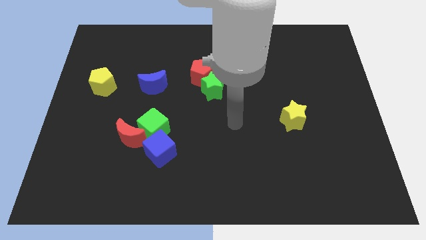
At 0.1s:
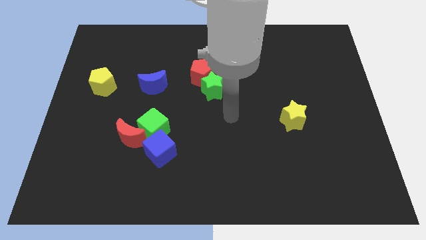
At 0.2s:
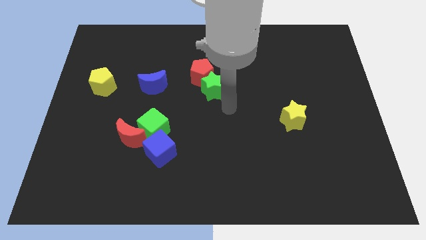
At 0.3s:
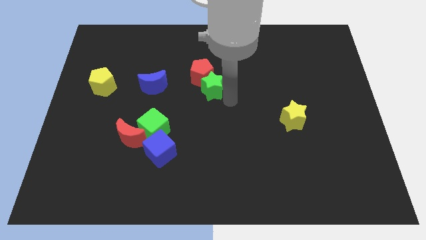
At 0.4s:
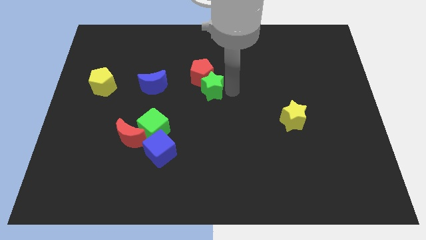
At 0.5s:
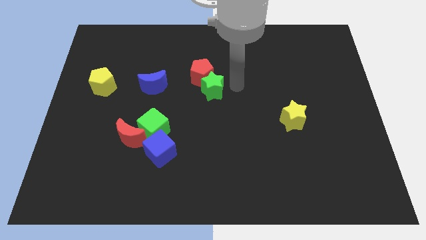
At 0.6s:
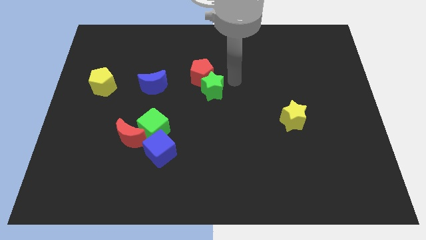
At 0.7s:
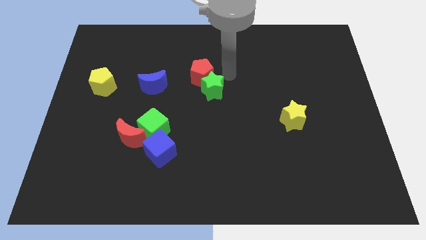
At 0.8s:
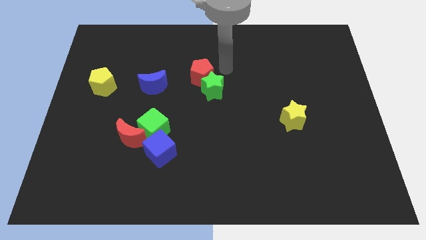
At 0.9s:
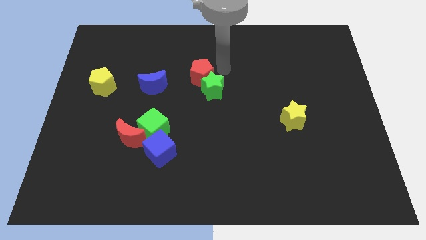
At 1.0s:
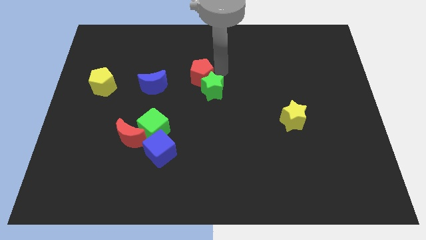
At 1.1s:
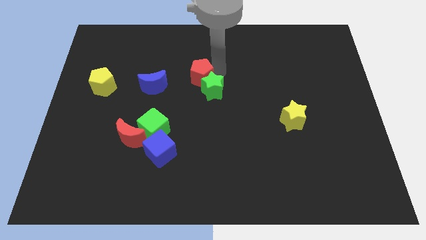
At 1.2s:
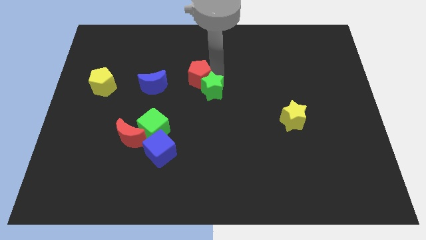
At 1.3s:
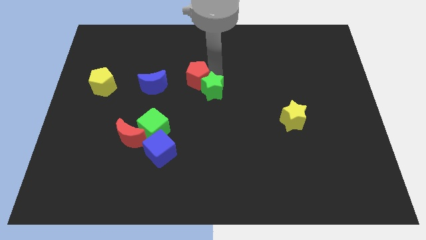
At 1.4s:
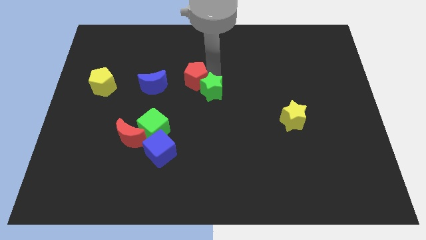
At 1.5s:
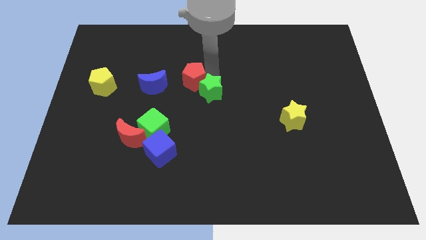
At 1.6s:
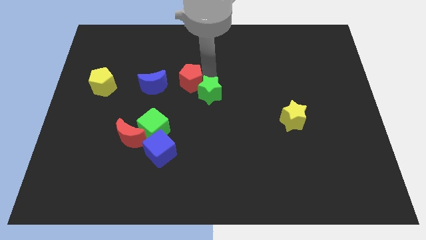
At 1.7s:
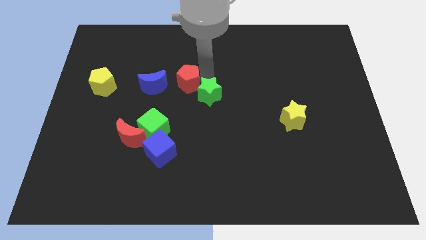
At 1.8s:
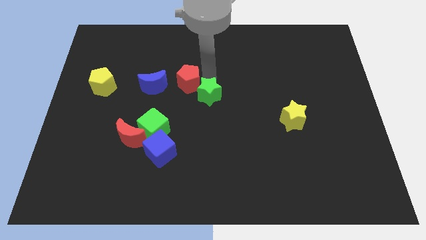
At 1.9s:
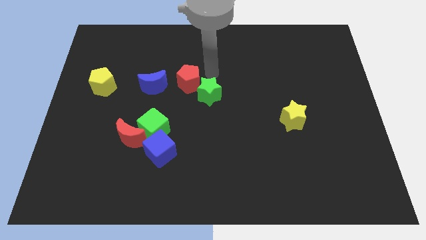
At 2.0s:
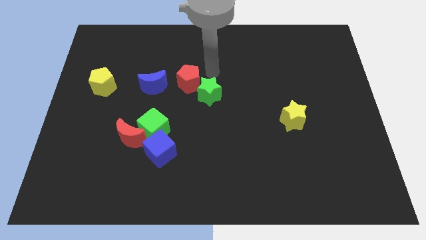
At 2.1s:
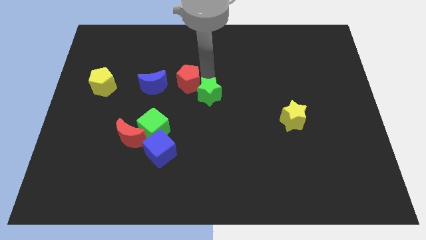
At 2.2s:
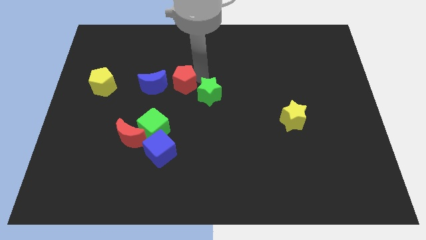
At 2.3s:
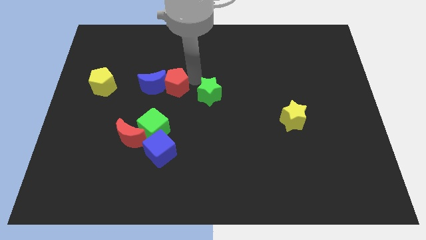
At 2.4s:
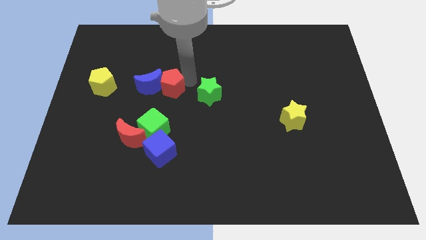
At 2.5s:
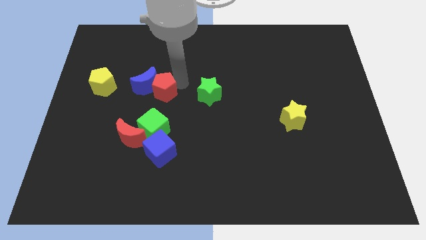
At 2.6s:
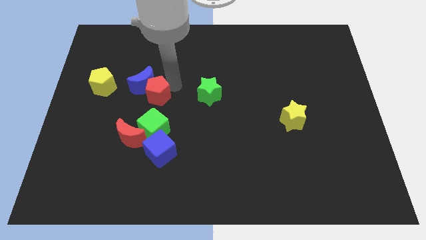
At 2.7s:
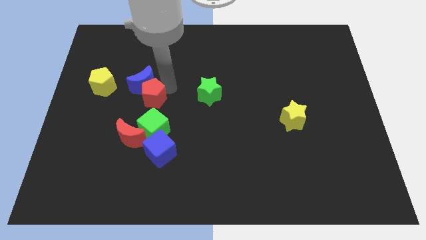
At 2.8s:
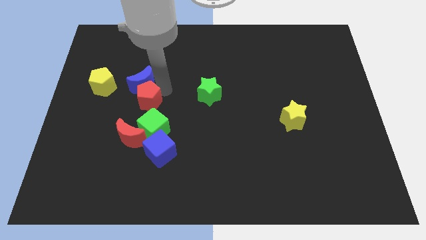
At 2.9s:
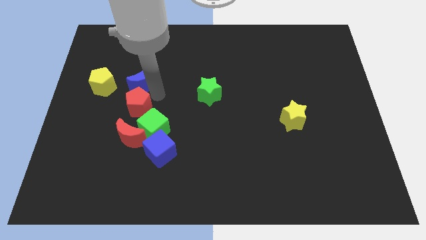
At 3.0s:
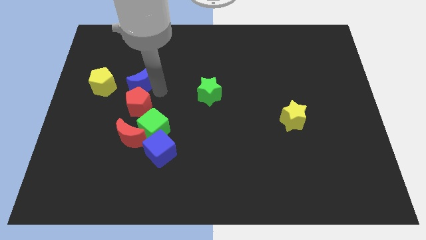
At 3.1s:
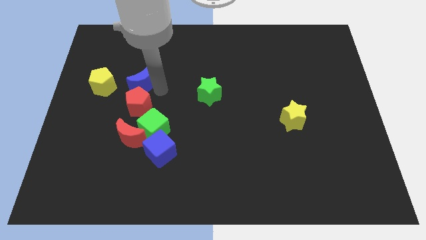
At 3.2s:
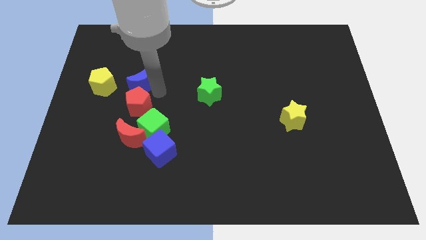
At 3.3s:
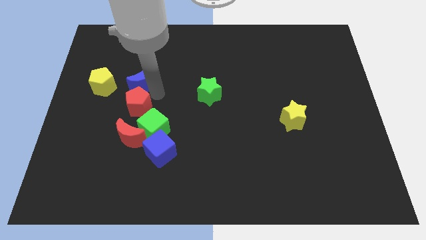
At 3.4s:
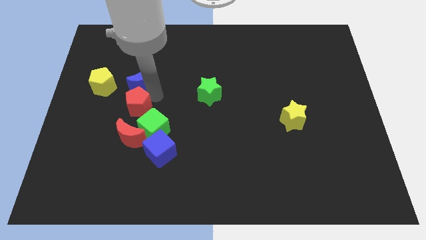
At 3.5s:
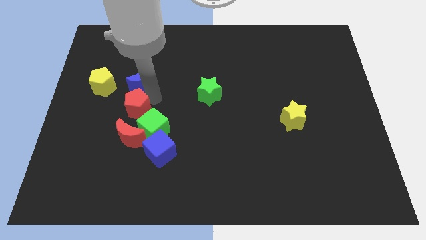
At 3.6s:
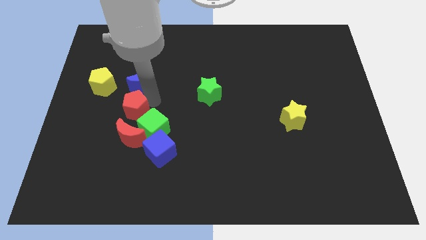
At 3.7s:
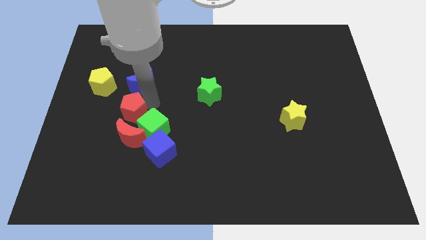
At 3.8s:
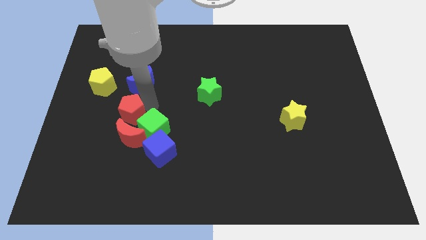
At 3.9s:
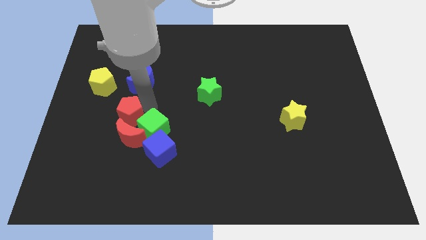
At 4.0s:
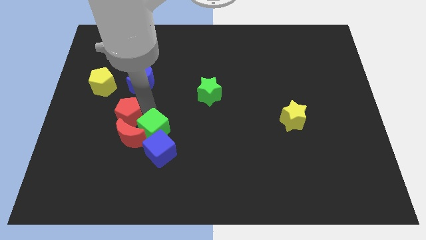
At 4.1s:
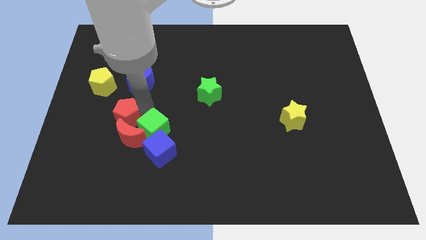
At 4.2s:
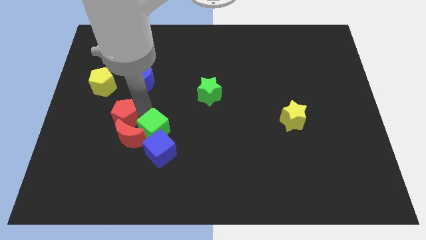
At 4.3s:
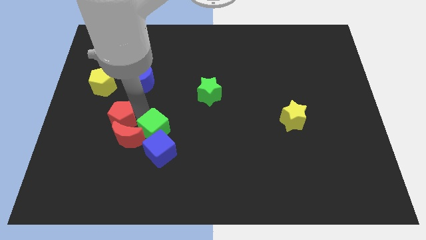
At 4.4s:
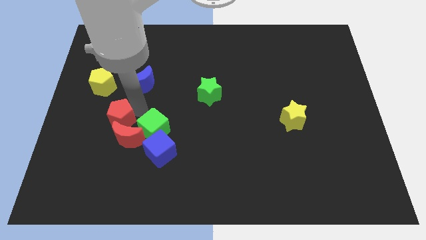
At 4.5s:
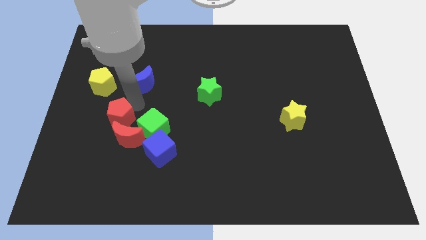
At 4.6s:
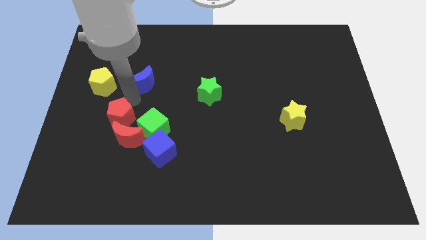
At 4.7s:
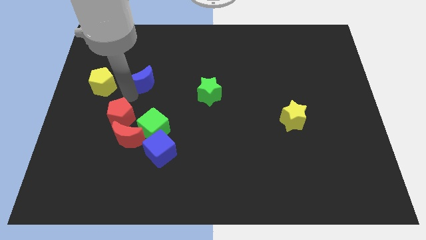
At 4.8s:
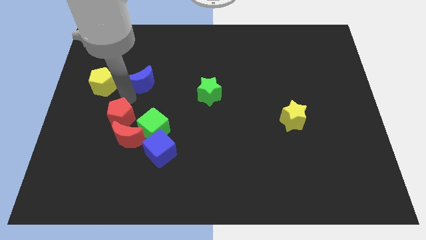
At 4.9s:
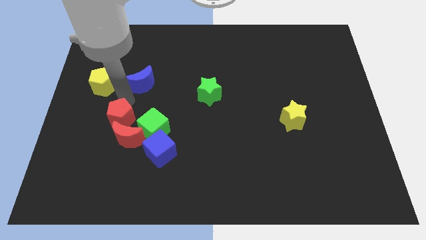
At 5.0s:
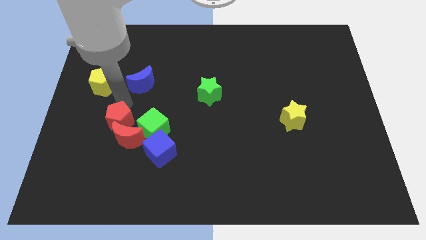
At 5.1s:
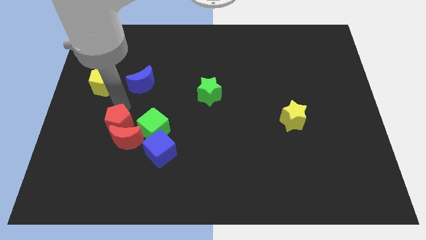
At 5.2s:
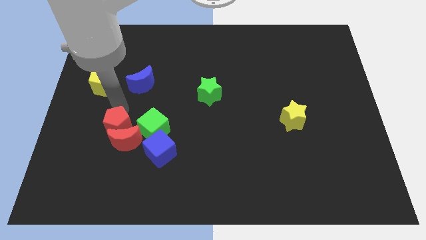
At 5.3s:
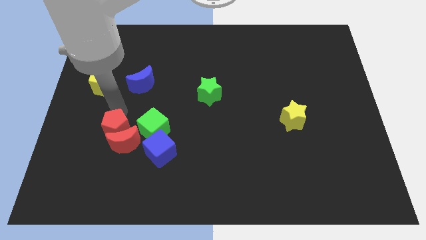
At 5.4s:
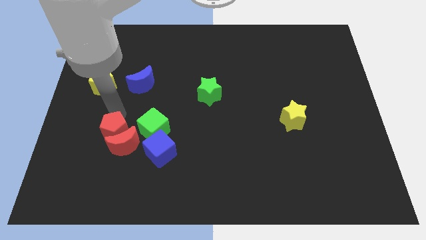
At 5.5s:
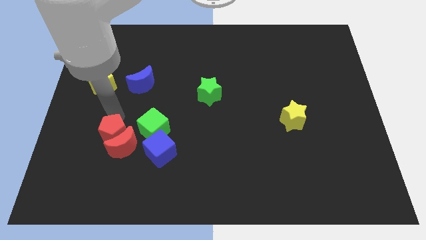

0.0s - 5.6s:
push the red pentagon left of the blue cube

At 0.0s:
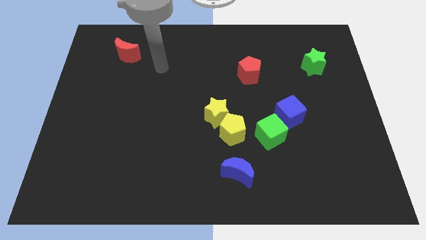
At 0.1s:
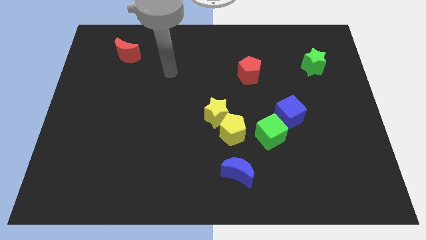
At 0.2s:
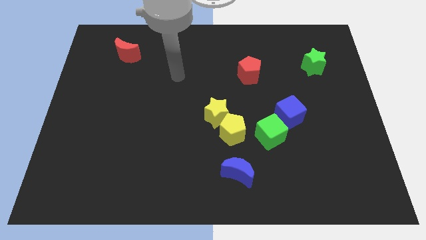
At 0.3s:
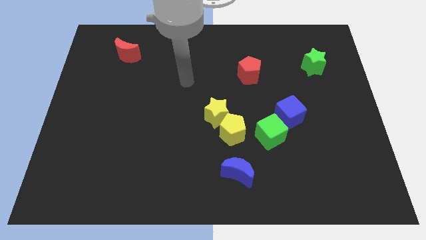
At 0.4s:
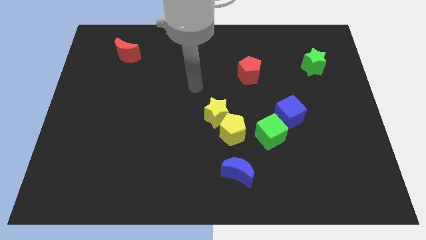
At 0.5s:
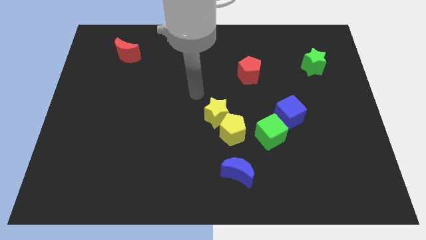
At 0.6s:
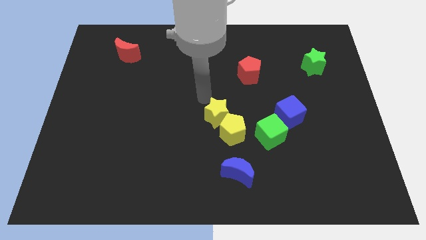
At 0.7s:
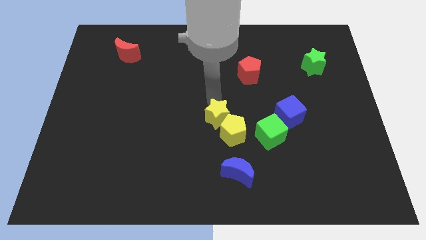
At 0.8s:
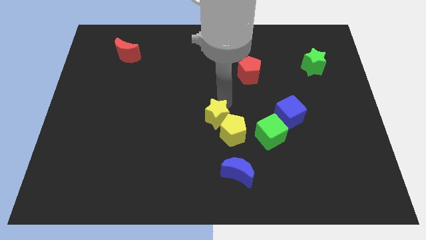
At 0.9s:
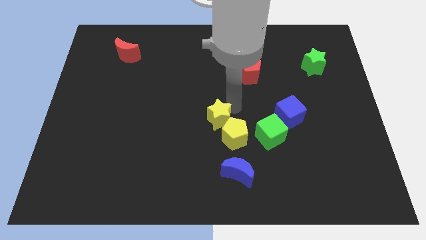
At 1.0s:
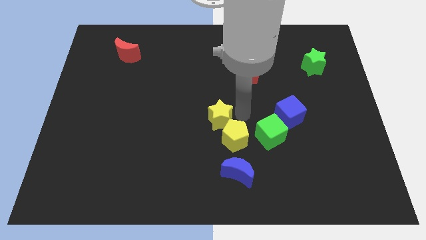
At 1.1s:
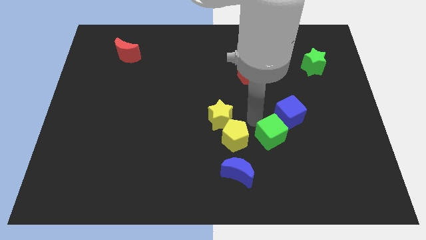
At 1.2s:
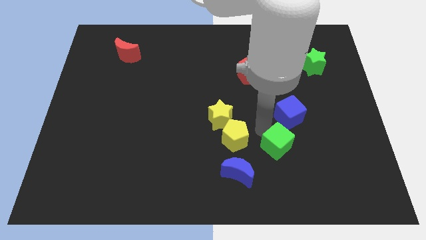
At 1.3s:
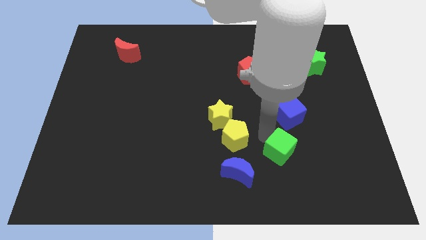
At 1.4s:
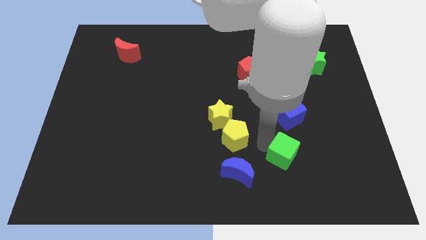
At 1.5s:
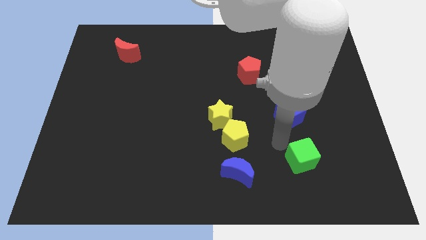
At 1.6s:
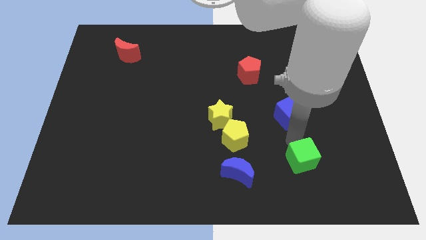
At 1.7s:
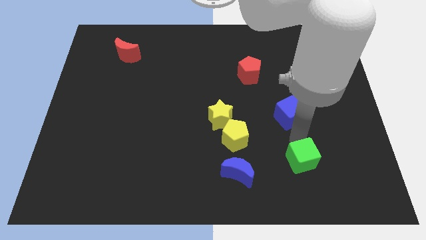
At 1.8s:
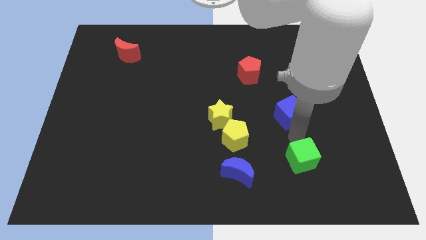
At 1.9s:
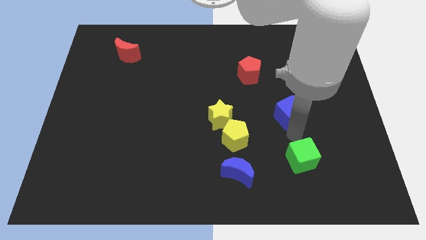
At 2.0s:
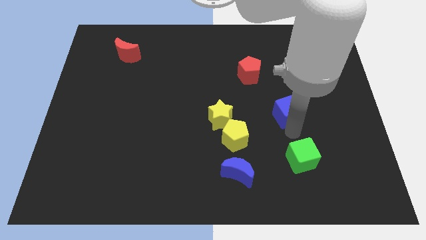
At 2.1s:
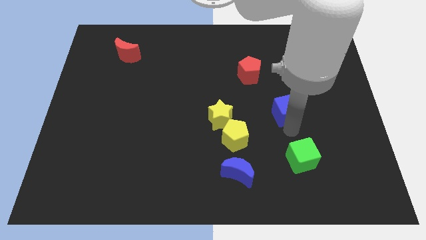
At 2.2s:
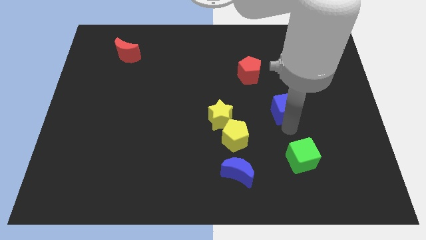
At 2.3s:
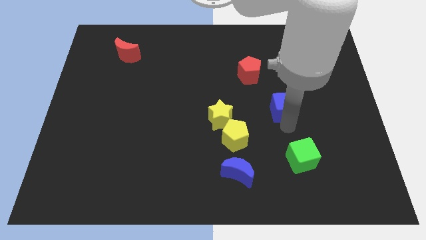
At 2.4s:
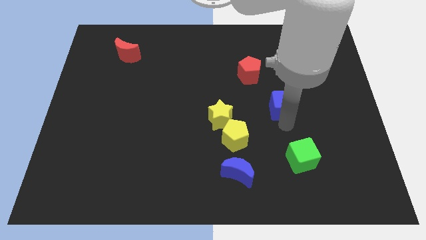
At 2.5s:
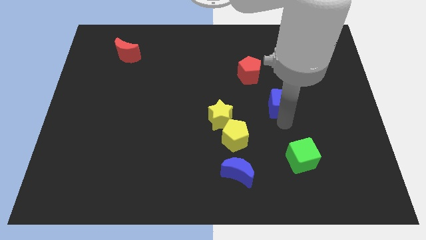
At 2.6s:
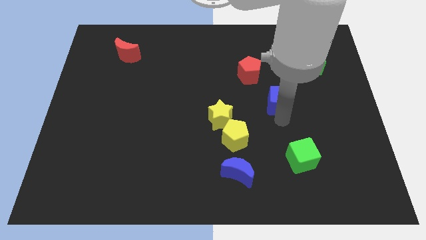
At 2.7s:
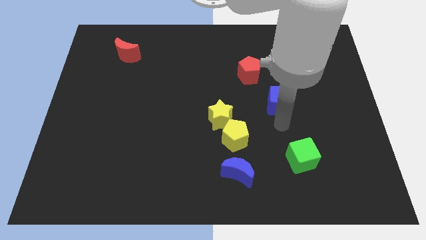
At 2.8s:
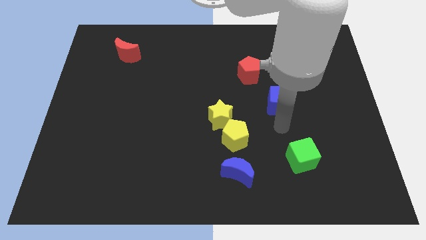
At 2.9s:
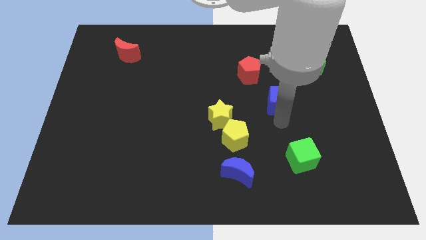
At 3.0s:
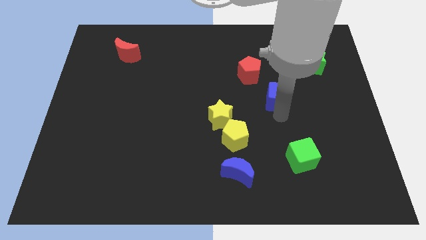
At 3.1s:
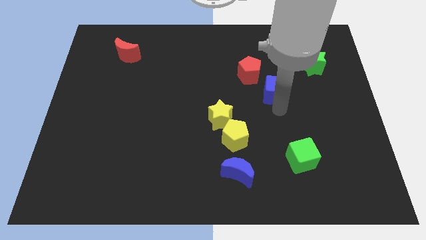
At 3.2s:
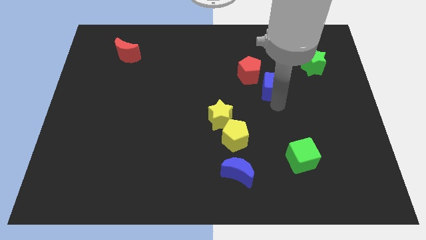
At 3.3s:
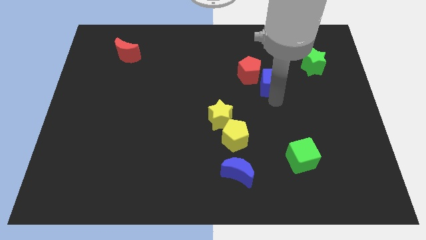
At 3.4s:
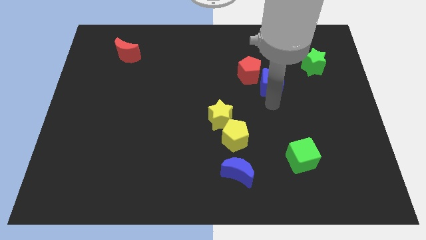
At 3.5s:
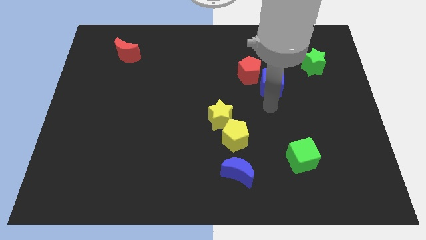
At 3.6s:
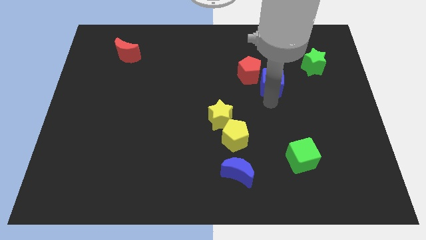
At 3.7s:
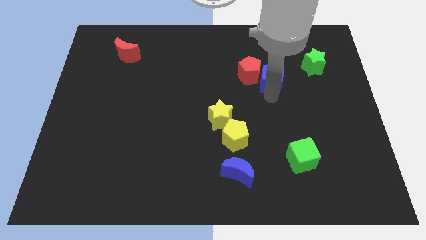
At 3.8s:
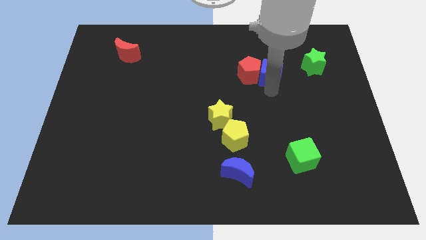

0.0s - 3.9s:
move the blue cube left of the green star
